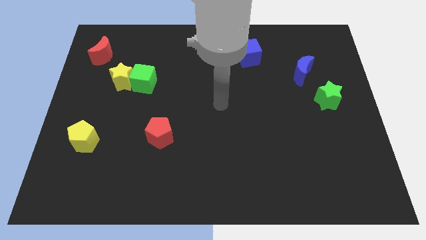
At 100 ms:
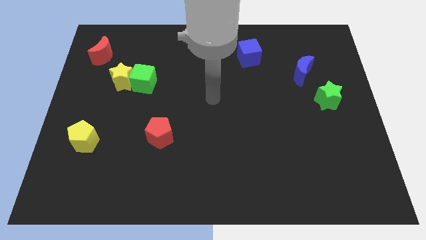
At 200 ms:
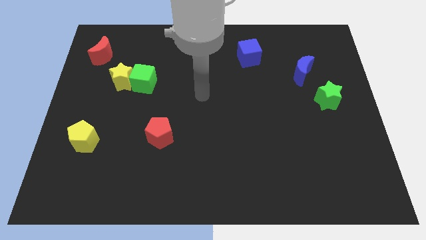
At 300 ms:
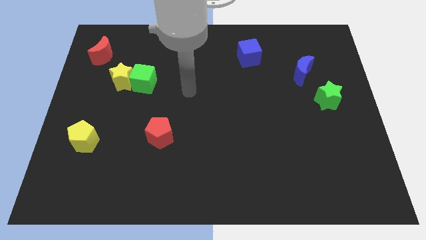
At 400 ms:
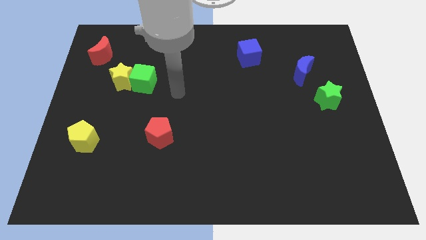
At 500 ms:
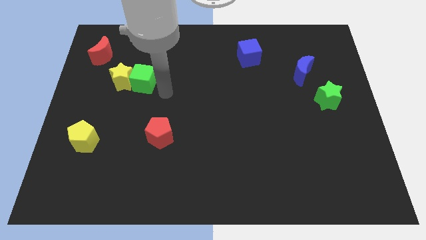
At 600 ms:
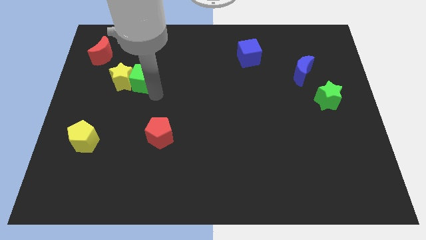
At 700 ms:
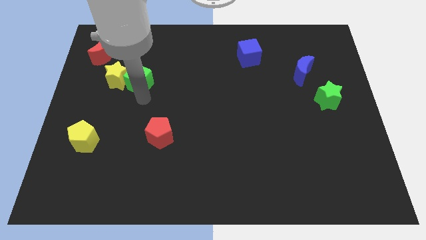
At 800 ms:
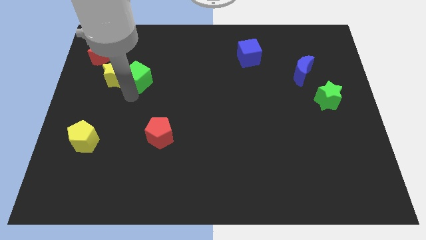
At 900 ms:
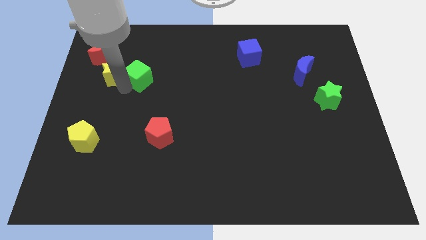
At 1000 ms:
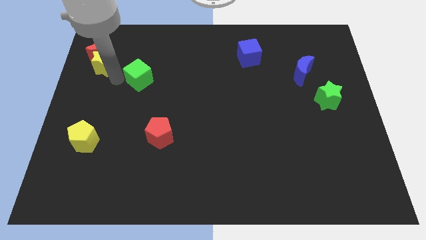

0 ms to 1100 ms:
pull the green cube apart from the yellow star

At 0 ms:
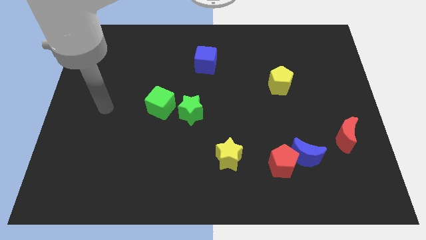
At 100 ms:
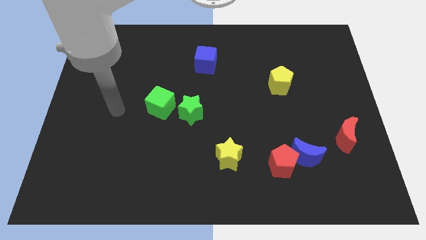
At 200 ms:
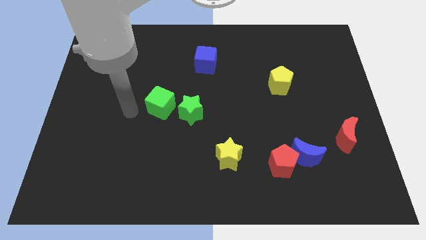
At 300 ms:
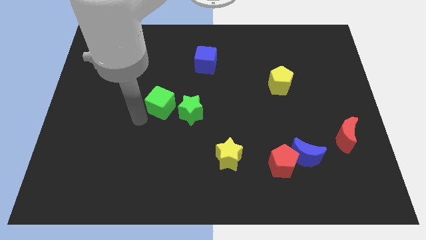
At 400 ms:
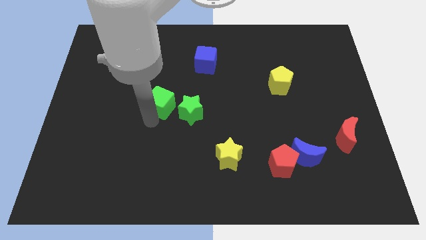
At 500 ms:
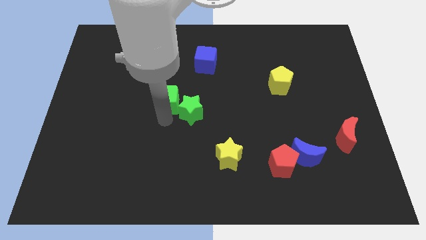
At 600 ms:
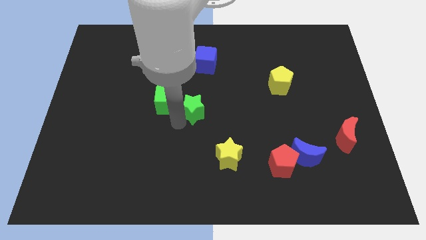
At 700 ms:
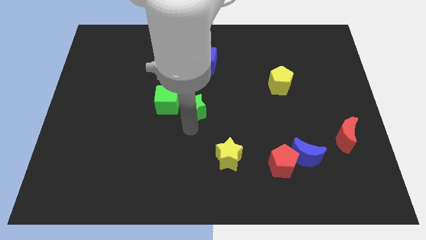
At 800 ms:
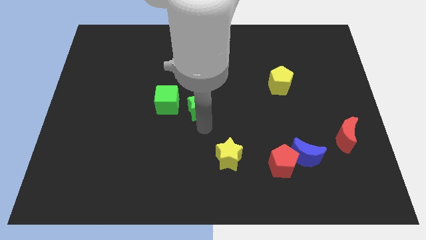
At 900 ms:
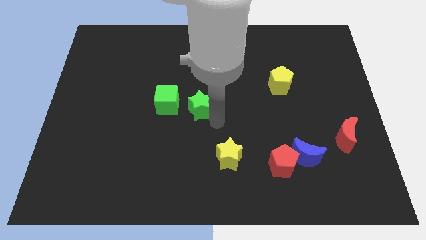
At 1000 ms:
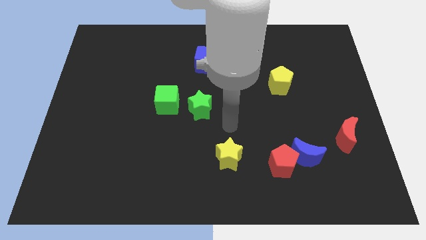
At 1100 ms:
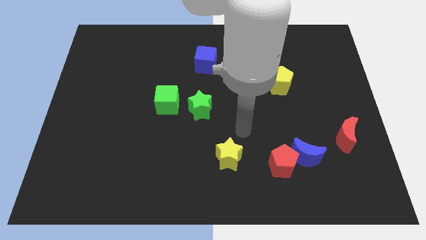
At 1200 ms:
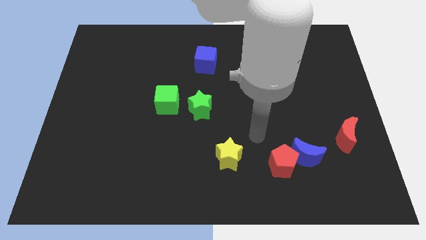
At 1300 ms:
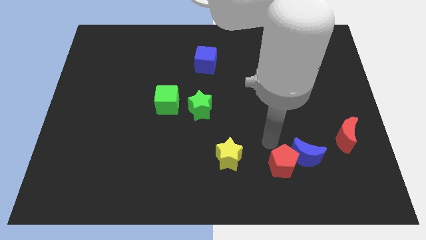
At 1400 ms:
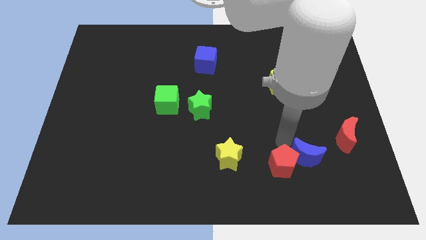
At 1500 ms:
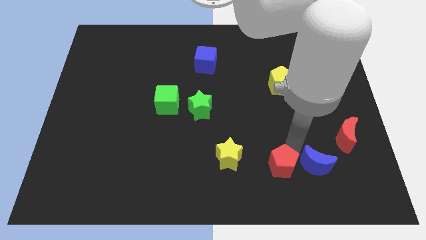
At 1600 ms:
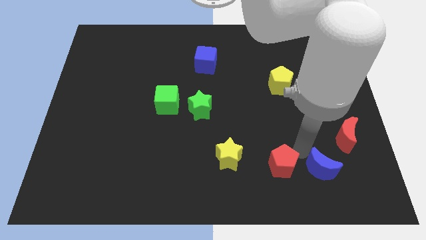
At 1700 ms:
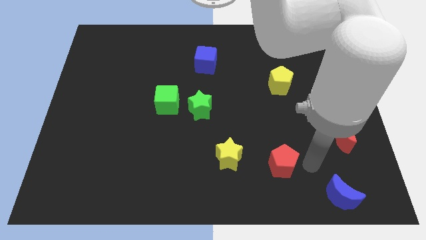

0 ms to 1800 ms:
move the red pentagon away from the blue moon

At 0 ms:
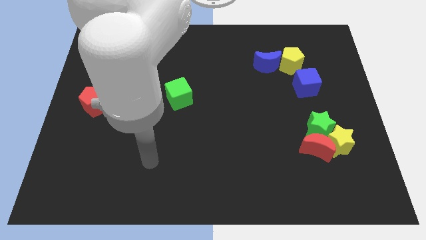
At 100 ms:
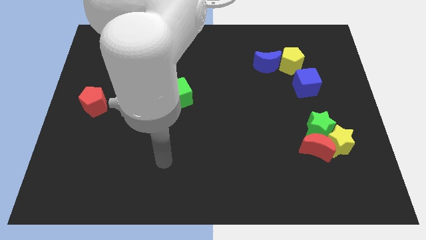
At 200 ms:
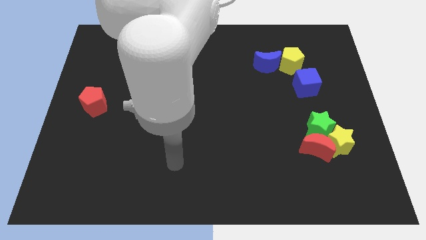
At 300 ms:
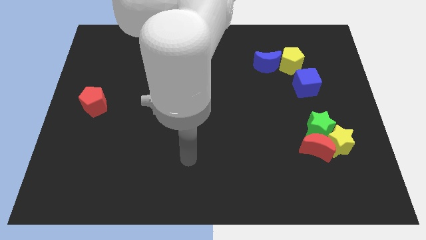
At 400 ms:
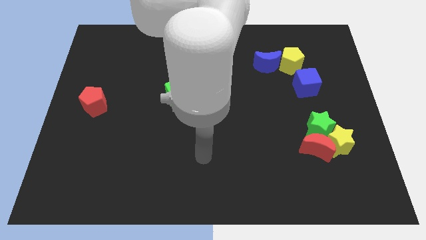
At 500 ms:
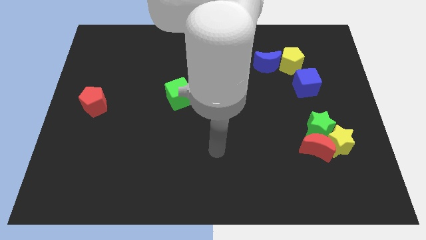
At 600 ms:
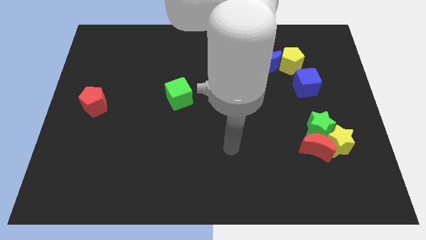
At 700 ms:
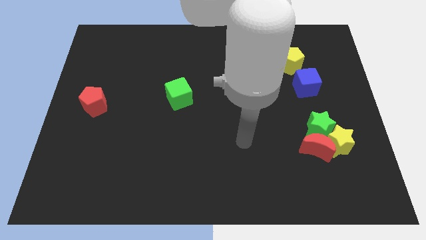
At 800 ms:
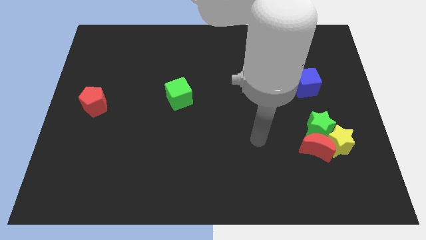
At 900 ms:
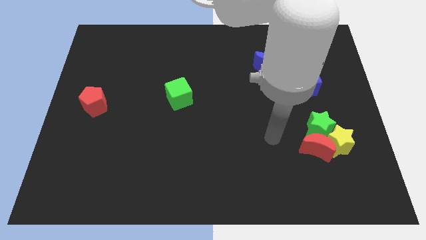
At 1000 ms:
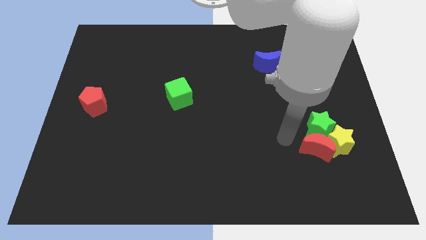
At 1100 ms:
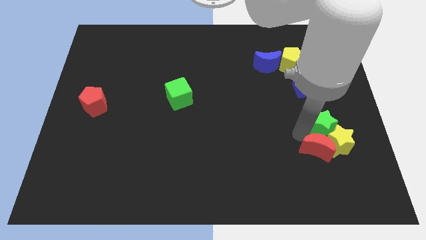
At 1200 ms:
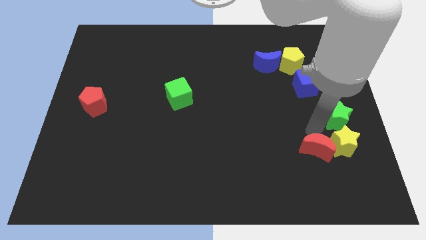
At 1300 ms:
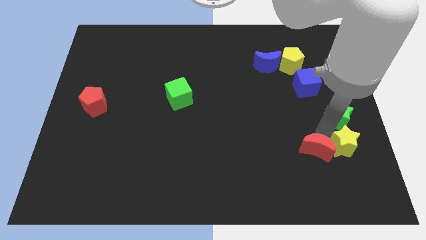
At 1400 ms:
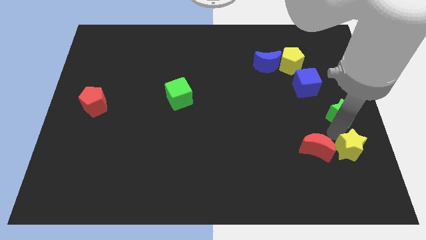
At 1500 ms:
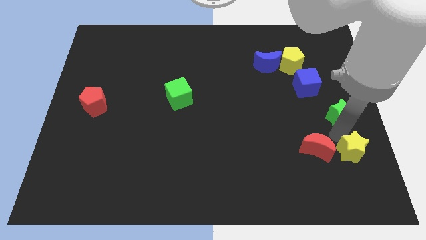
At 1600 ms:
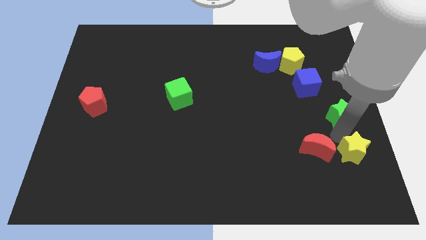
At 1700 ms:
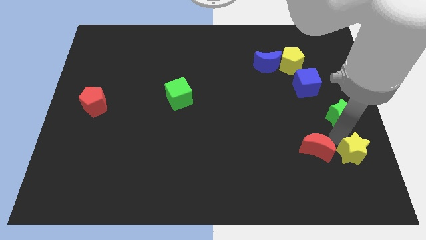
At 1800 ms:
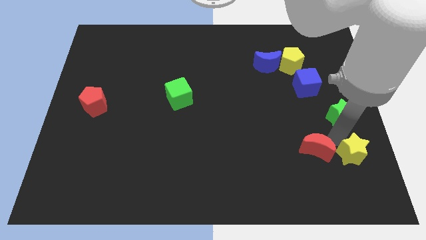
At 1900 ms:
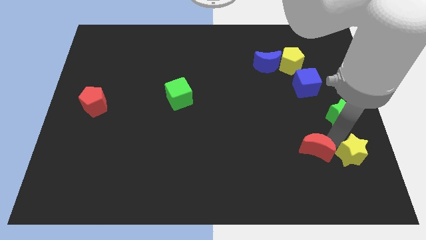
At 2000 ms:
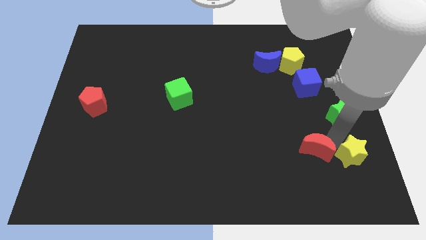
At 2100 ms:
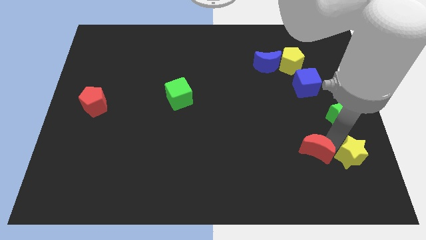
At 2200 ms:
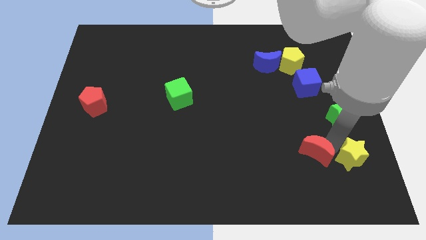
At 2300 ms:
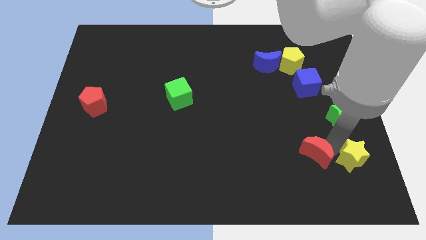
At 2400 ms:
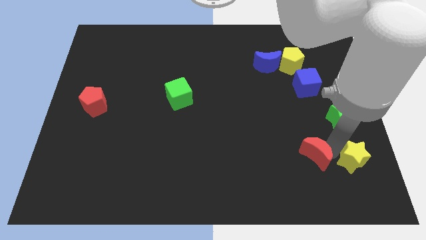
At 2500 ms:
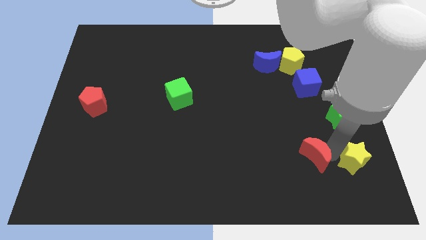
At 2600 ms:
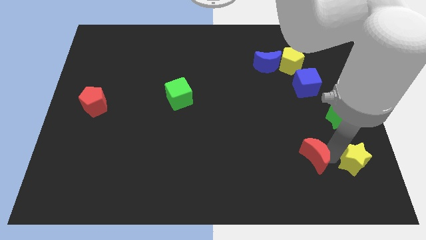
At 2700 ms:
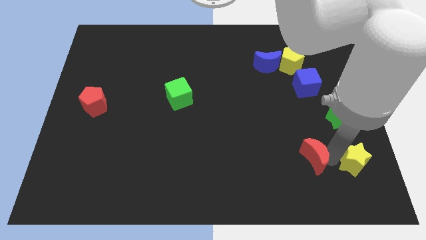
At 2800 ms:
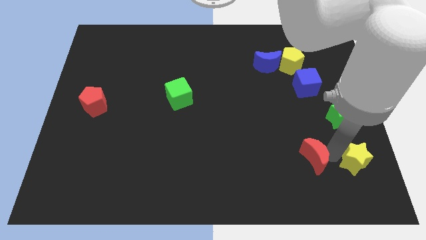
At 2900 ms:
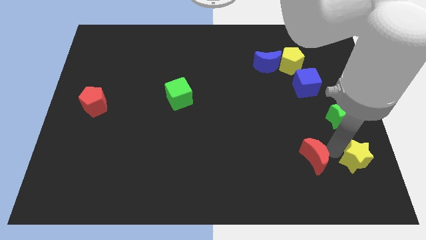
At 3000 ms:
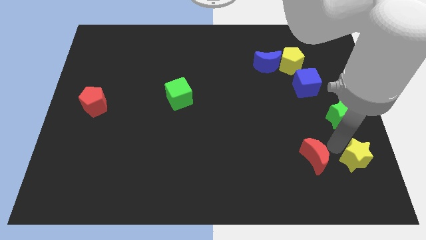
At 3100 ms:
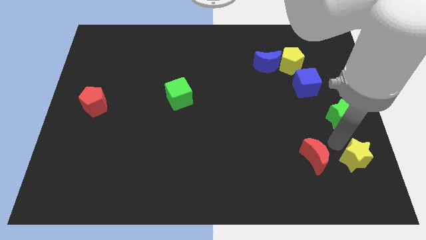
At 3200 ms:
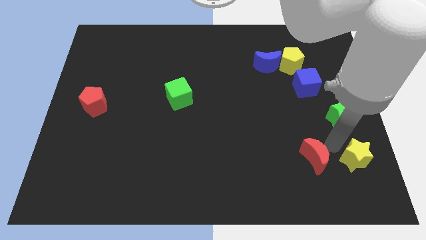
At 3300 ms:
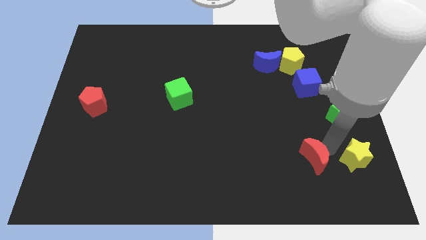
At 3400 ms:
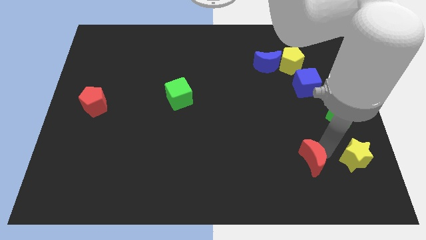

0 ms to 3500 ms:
move the red moon away from the yellow star and green star

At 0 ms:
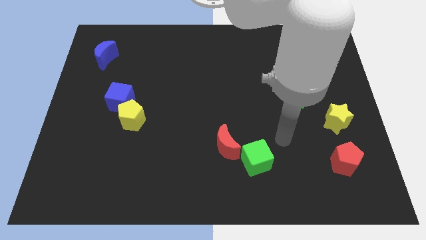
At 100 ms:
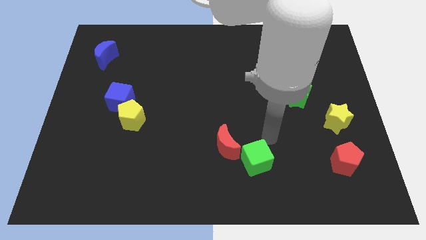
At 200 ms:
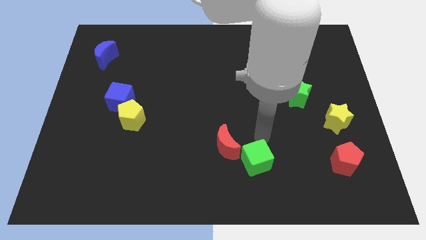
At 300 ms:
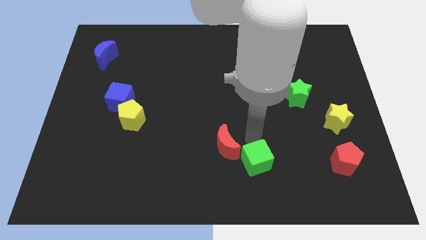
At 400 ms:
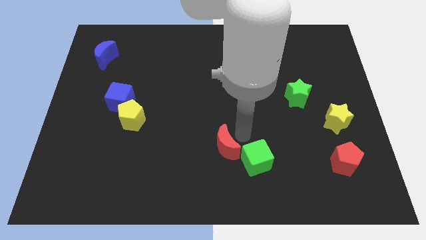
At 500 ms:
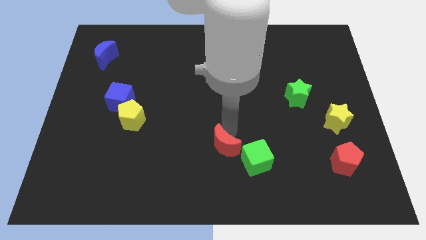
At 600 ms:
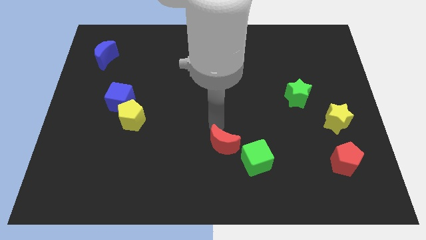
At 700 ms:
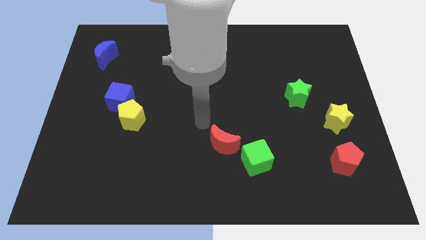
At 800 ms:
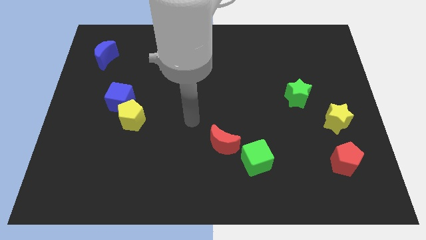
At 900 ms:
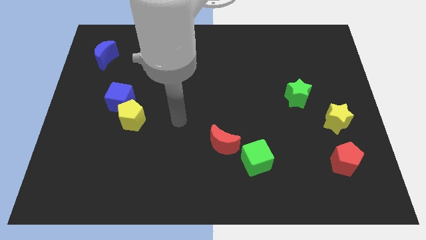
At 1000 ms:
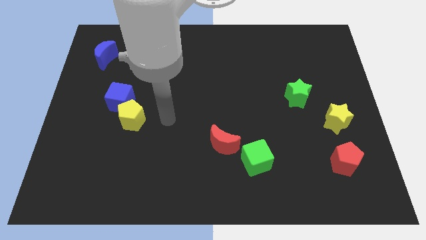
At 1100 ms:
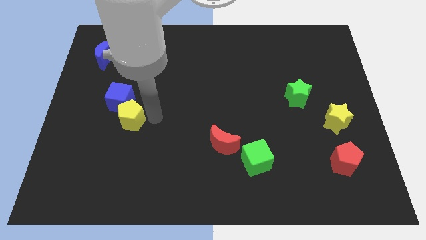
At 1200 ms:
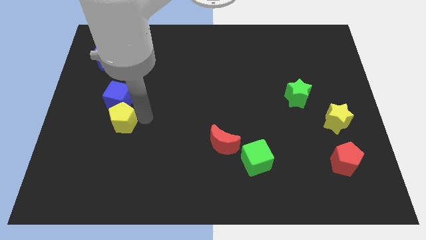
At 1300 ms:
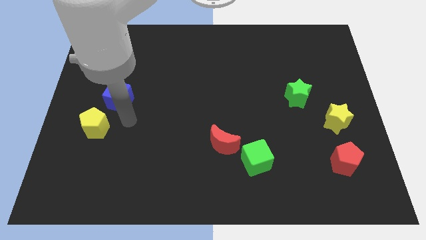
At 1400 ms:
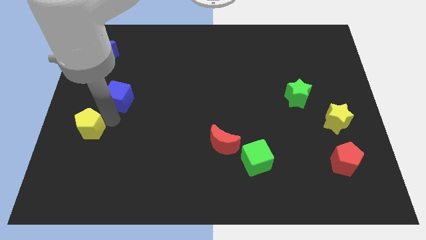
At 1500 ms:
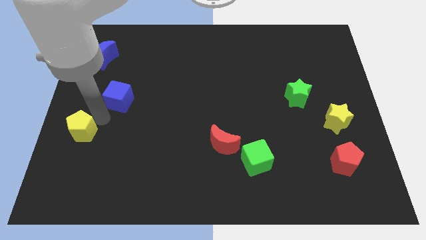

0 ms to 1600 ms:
separate the blue cube from the yellow pentagon

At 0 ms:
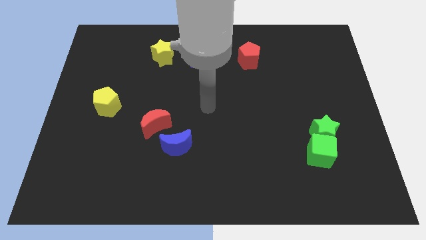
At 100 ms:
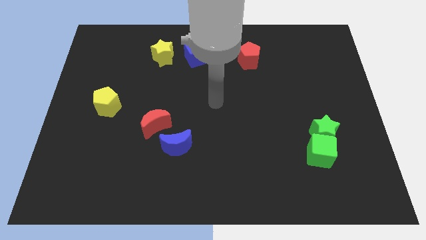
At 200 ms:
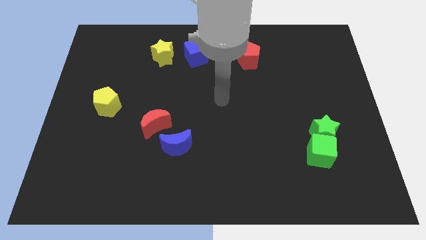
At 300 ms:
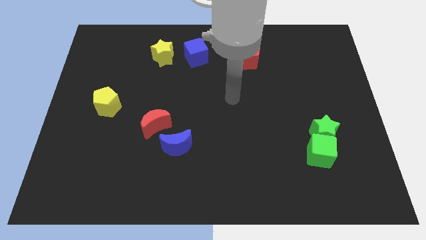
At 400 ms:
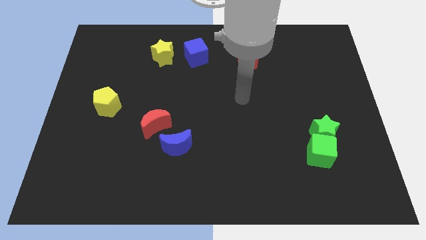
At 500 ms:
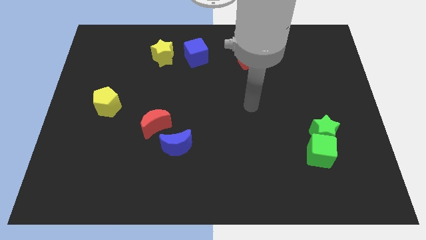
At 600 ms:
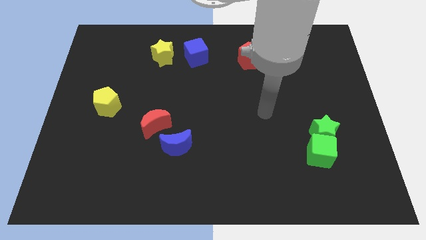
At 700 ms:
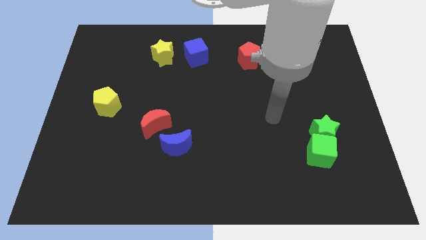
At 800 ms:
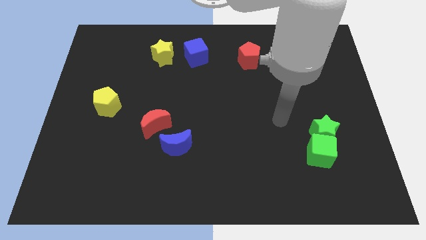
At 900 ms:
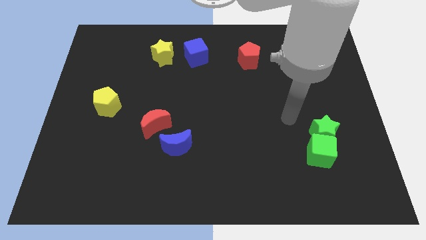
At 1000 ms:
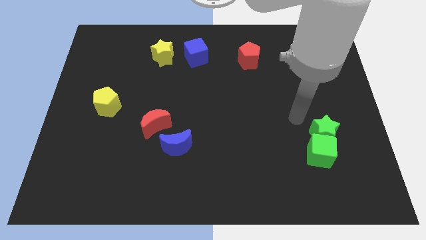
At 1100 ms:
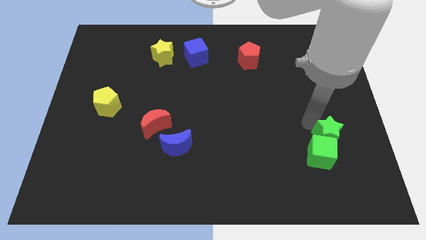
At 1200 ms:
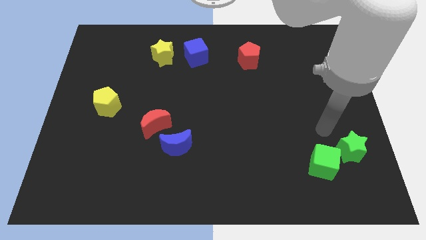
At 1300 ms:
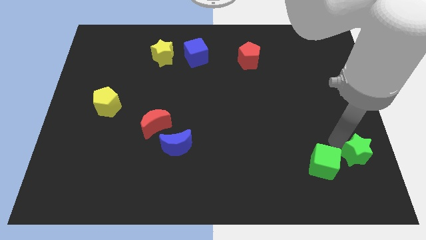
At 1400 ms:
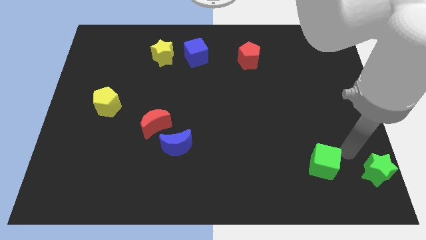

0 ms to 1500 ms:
separate the green cube from the green star
